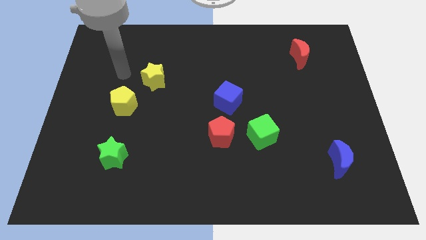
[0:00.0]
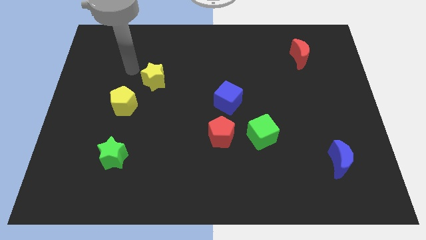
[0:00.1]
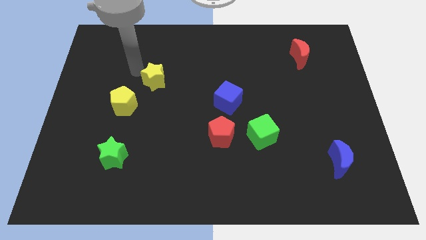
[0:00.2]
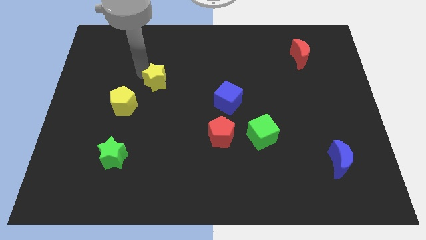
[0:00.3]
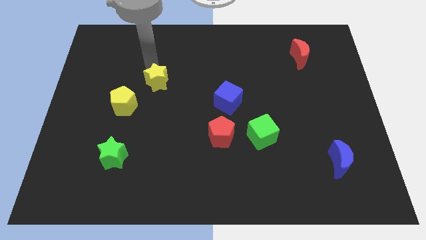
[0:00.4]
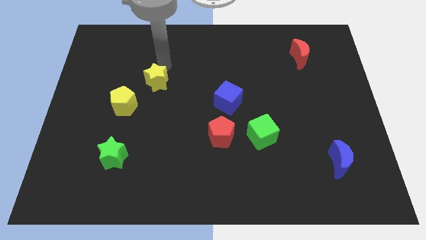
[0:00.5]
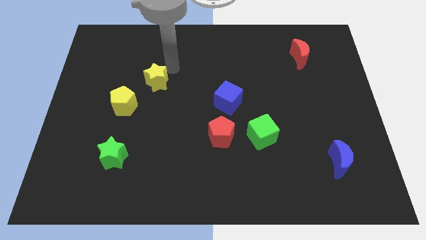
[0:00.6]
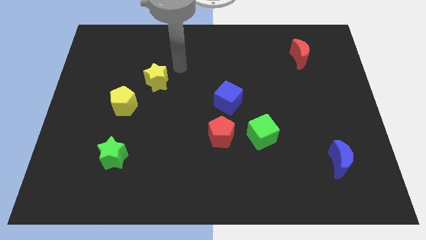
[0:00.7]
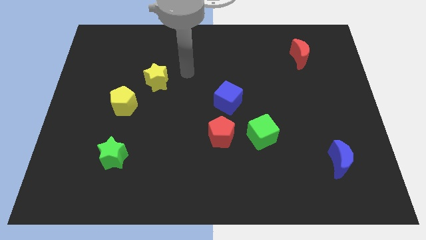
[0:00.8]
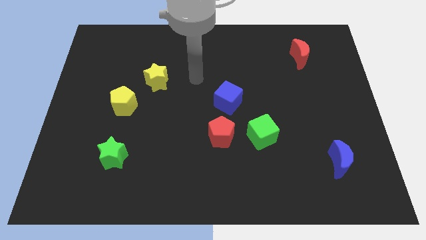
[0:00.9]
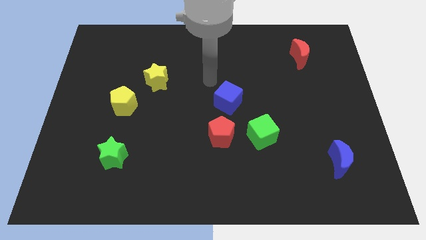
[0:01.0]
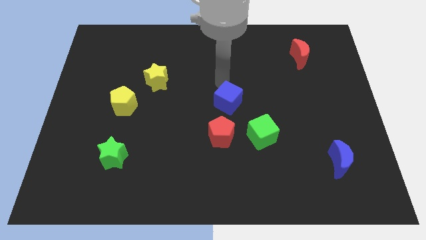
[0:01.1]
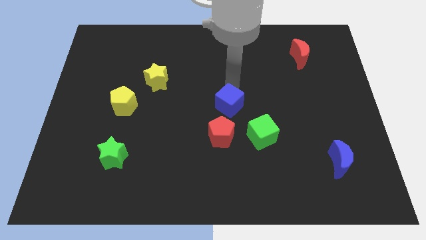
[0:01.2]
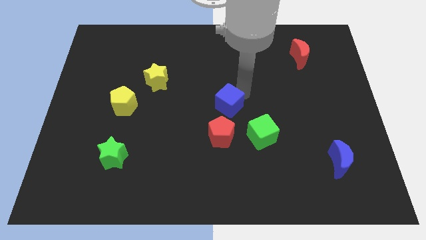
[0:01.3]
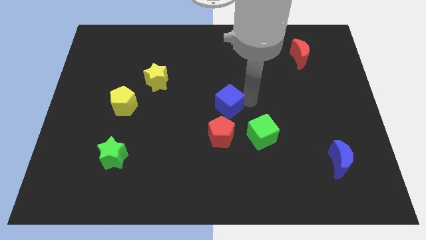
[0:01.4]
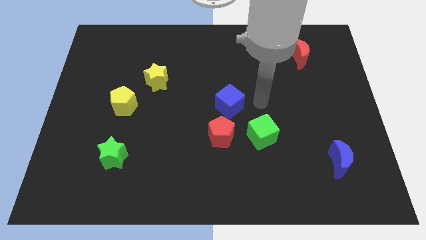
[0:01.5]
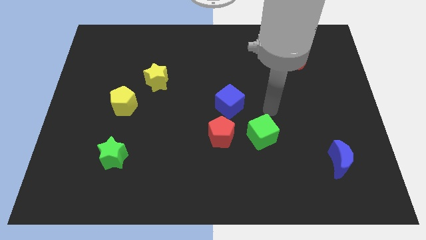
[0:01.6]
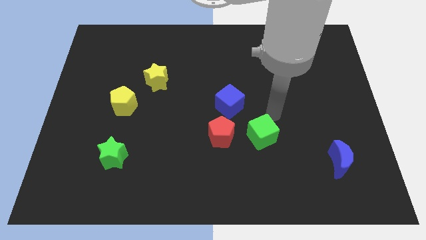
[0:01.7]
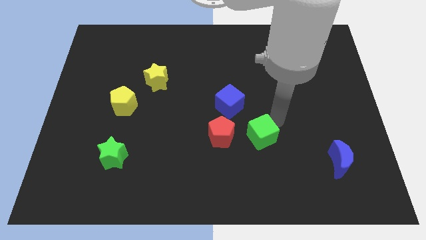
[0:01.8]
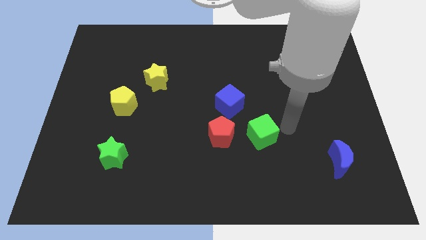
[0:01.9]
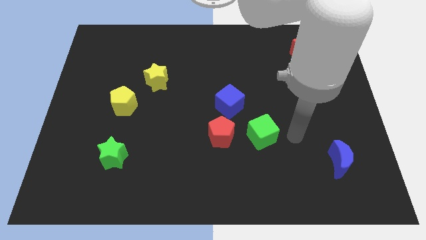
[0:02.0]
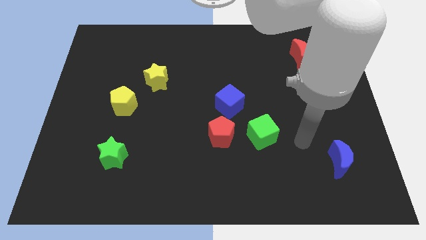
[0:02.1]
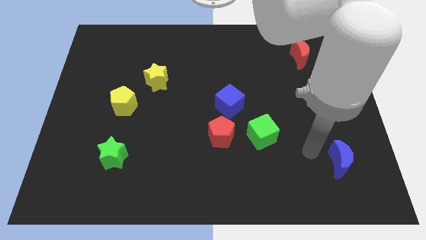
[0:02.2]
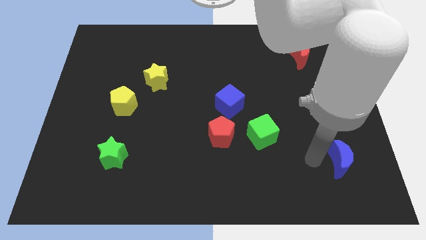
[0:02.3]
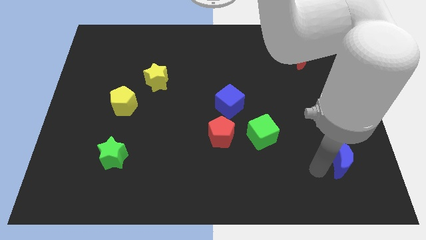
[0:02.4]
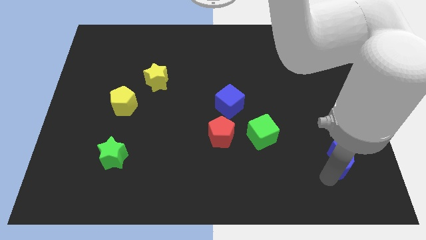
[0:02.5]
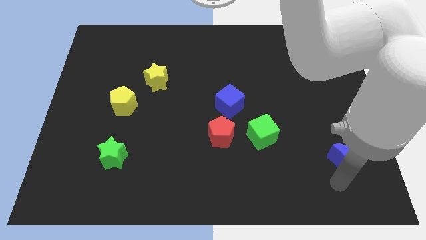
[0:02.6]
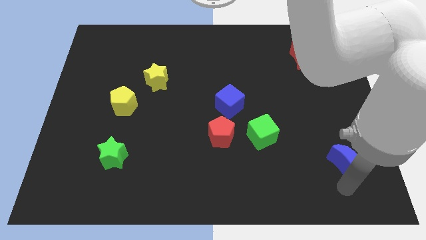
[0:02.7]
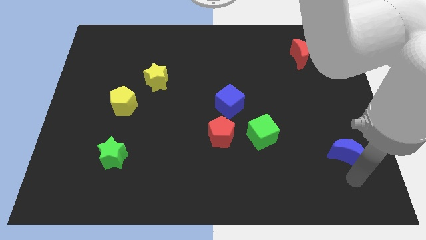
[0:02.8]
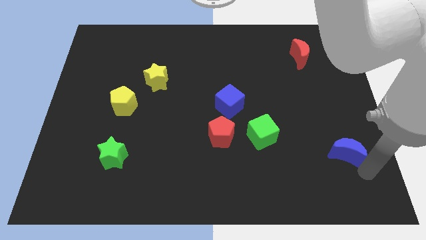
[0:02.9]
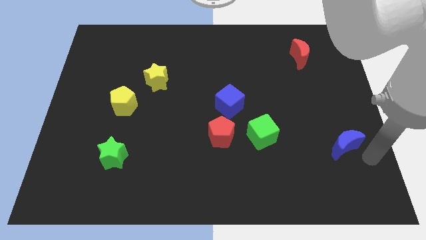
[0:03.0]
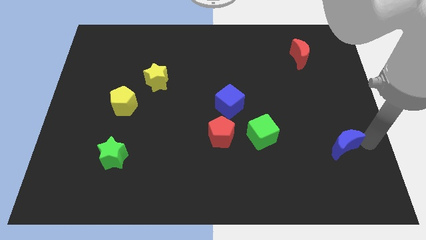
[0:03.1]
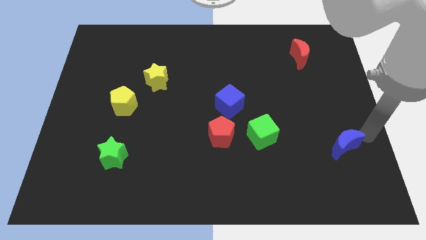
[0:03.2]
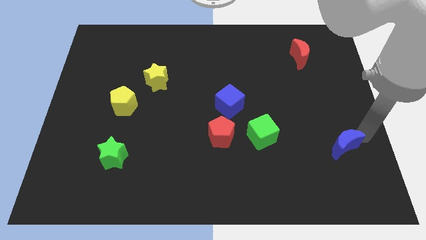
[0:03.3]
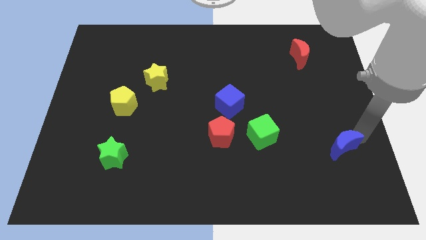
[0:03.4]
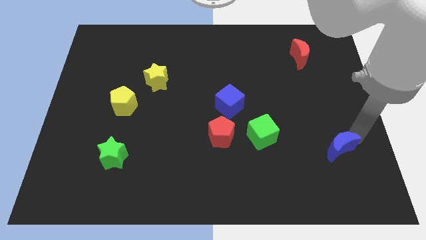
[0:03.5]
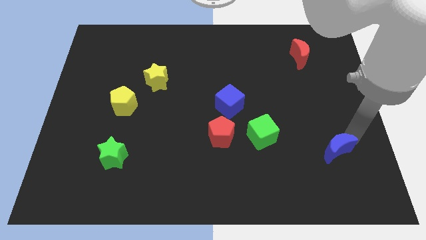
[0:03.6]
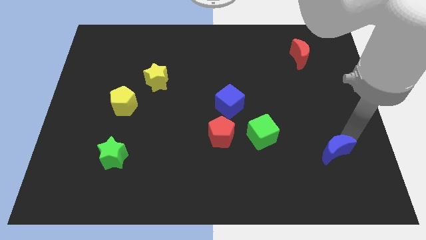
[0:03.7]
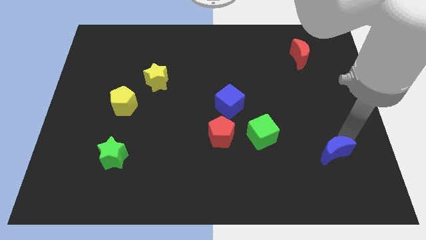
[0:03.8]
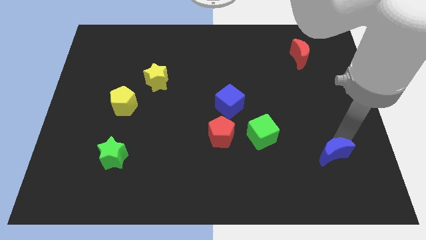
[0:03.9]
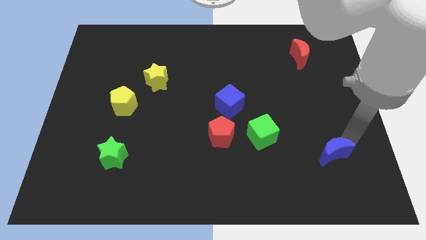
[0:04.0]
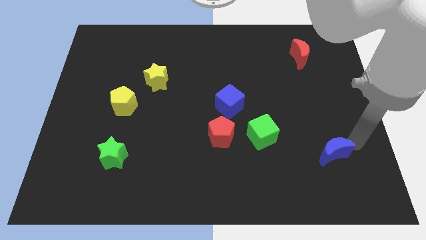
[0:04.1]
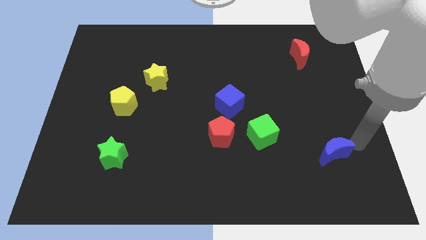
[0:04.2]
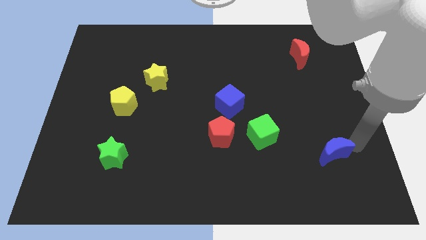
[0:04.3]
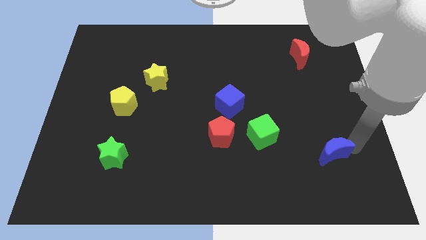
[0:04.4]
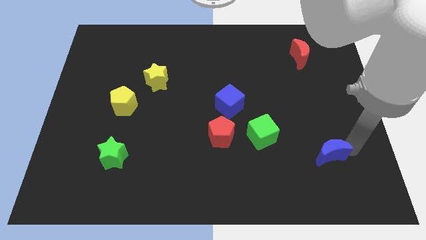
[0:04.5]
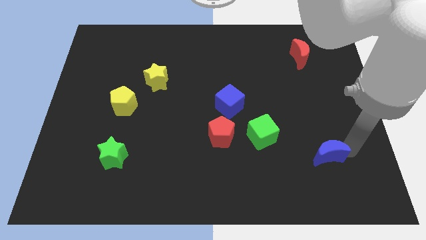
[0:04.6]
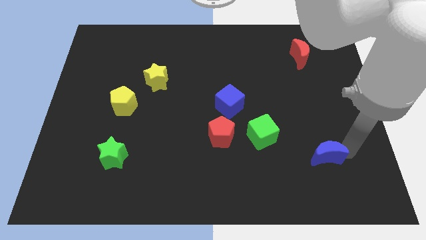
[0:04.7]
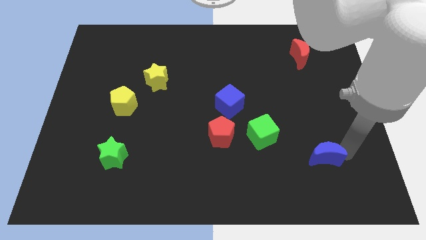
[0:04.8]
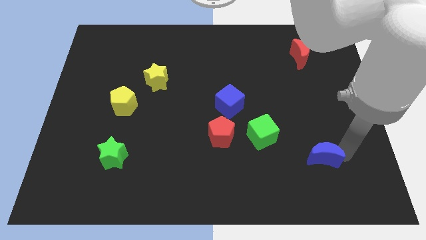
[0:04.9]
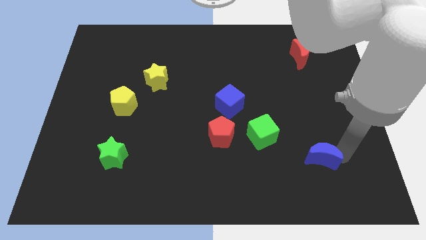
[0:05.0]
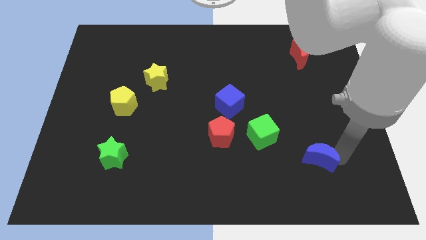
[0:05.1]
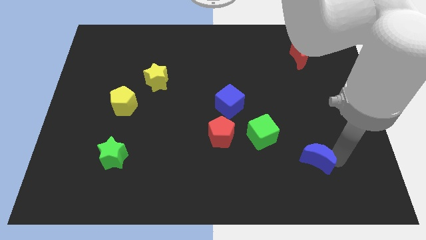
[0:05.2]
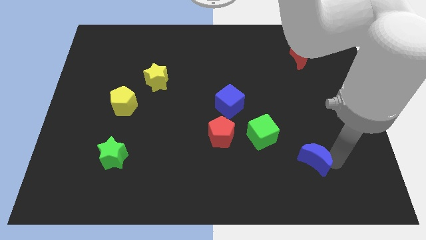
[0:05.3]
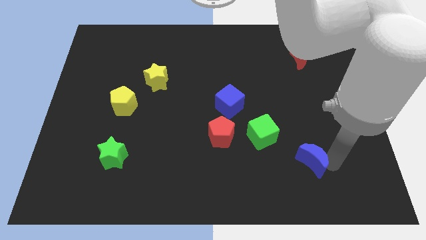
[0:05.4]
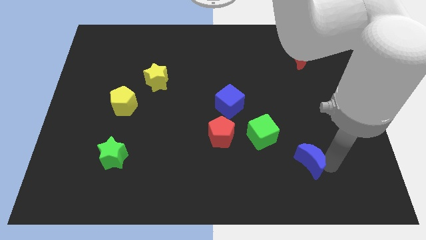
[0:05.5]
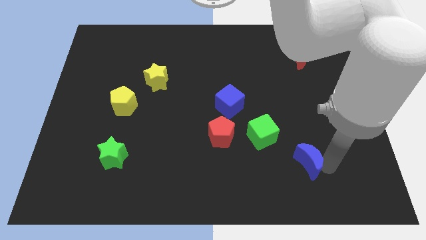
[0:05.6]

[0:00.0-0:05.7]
move the blue moon a bit left

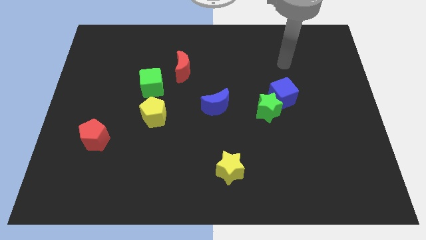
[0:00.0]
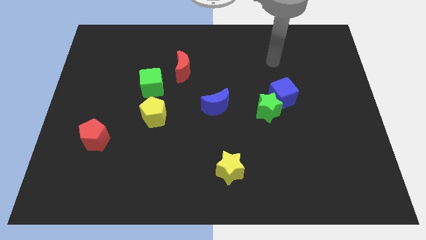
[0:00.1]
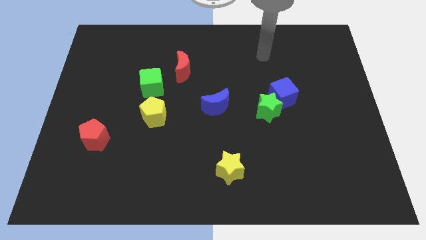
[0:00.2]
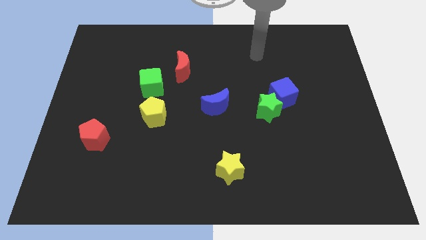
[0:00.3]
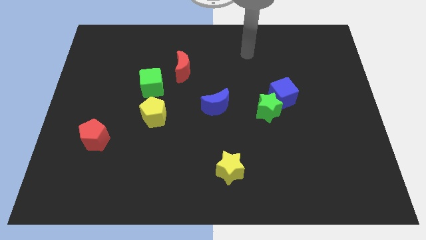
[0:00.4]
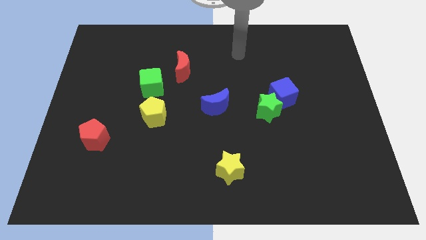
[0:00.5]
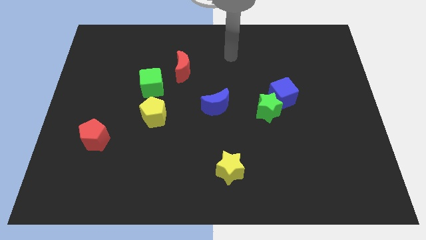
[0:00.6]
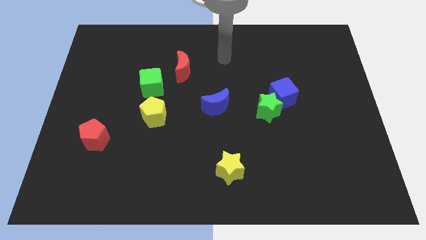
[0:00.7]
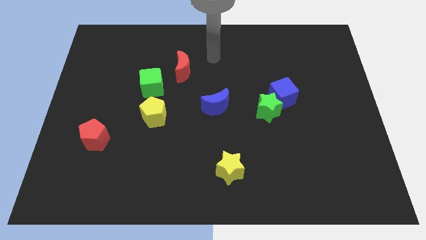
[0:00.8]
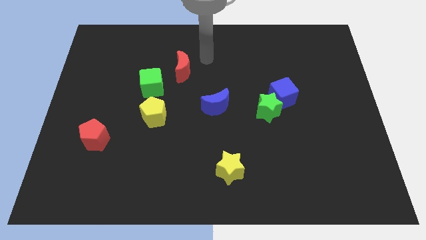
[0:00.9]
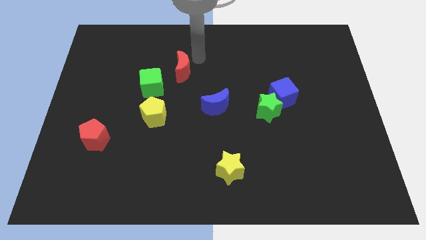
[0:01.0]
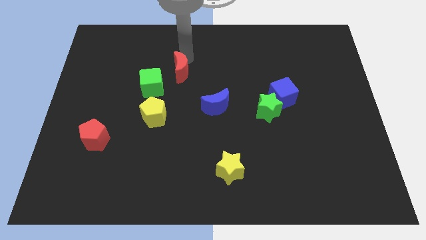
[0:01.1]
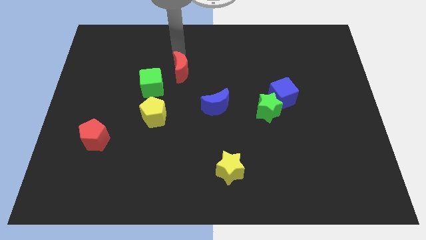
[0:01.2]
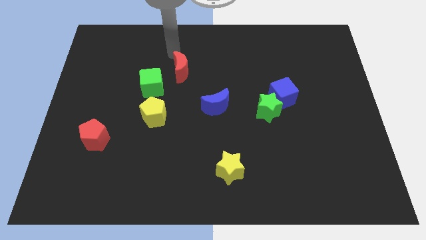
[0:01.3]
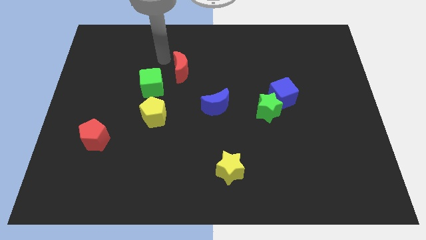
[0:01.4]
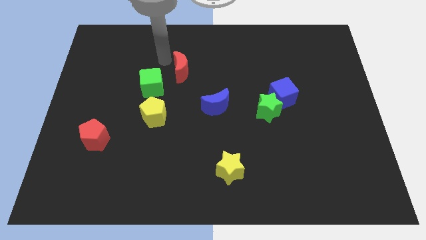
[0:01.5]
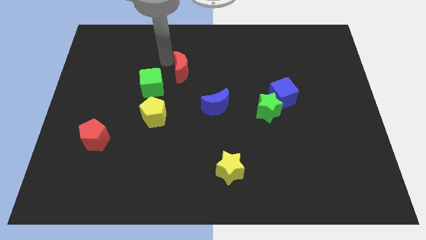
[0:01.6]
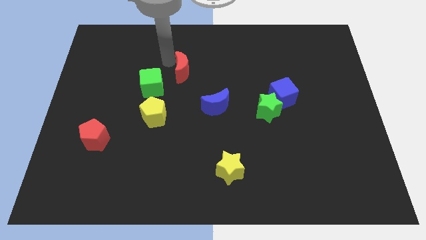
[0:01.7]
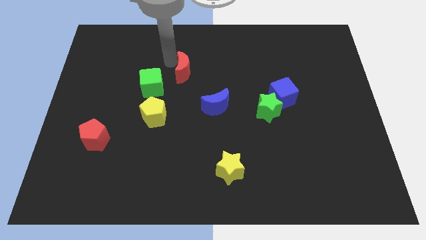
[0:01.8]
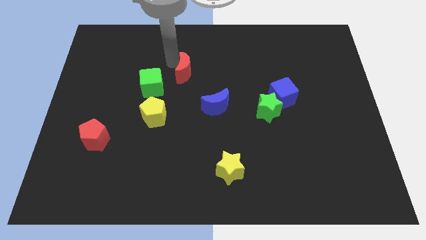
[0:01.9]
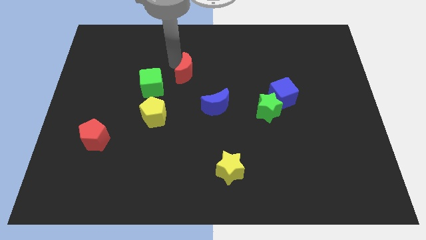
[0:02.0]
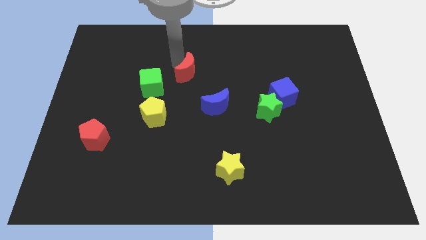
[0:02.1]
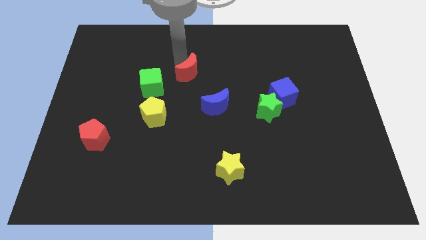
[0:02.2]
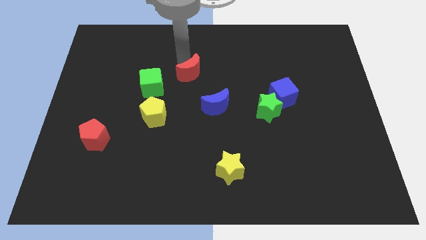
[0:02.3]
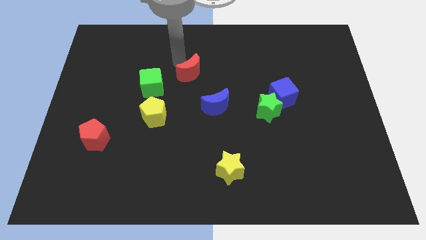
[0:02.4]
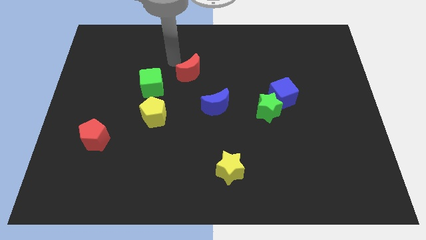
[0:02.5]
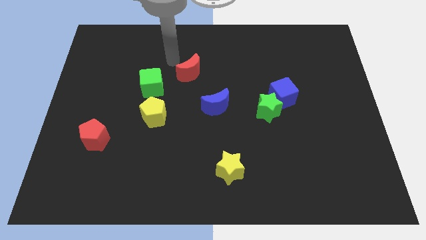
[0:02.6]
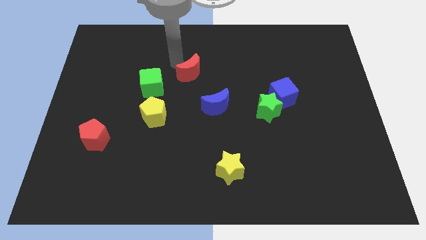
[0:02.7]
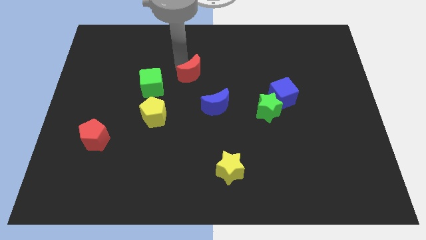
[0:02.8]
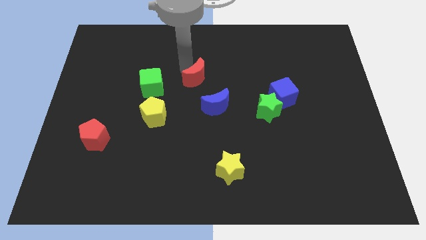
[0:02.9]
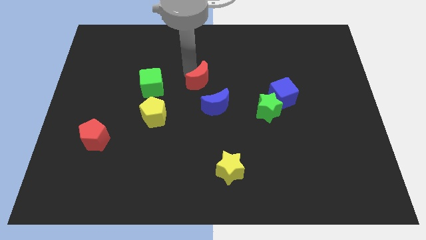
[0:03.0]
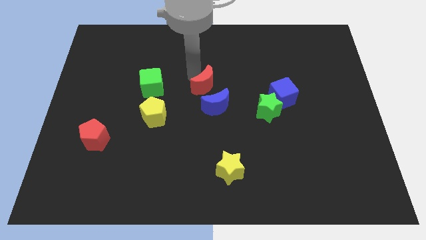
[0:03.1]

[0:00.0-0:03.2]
slide the red moon diagonally downwards and to the right a bit
